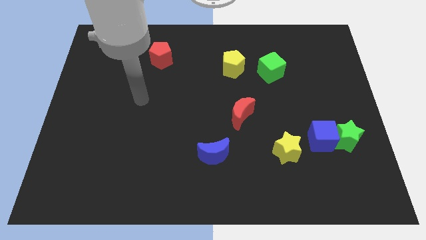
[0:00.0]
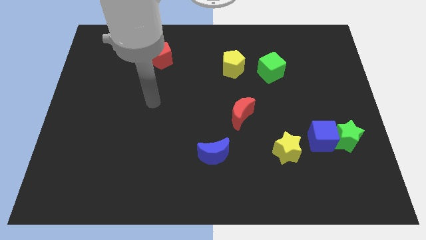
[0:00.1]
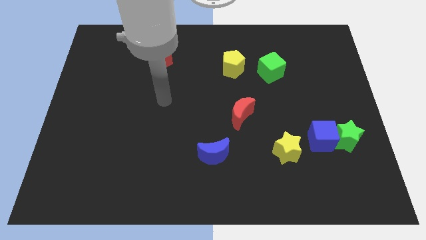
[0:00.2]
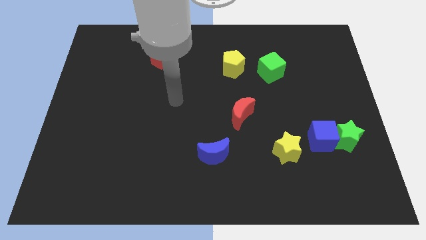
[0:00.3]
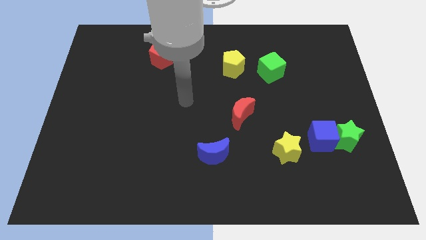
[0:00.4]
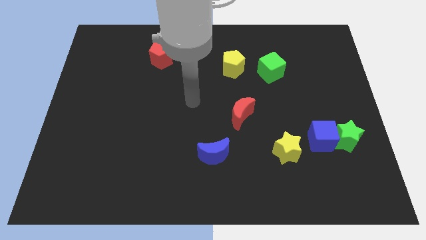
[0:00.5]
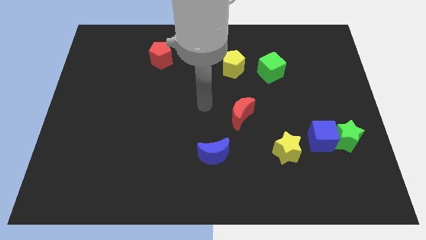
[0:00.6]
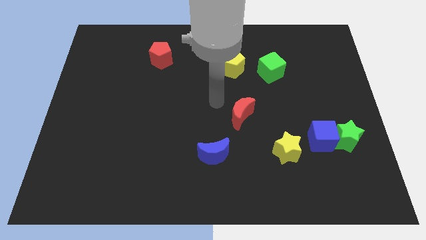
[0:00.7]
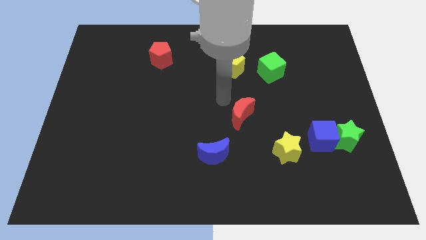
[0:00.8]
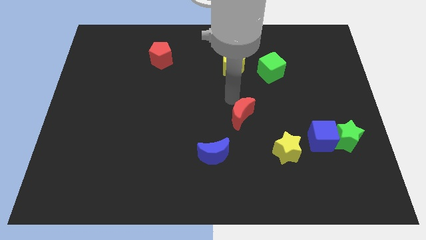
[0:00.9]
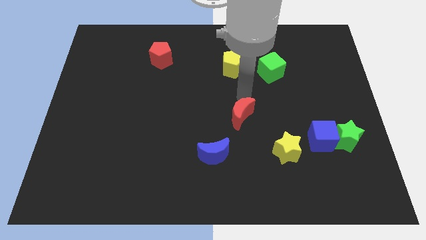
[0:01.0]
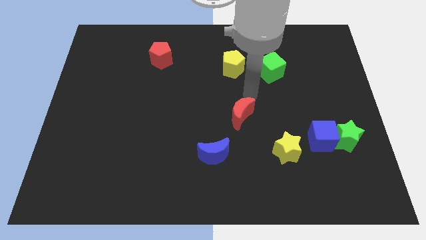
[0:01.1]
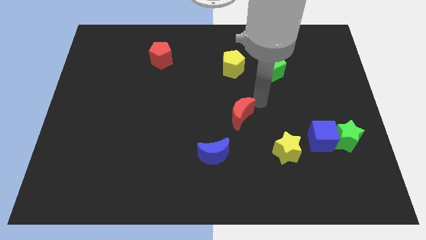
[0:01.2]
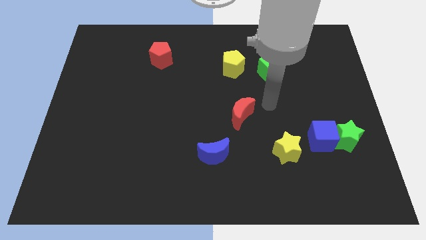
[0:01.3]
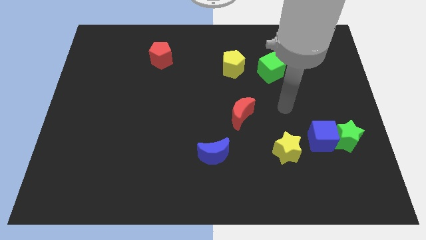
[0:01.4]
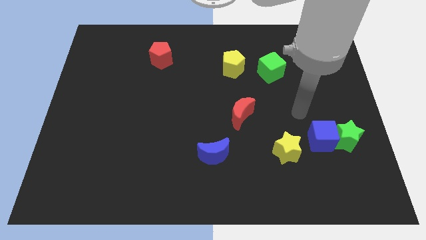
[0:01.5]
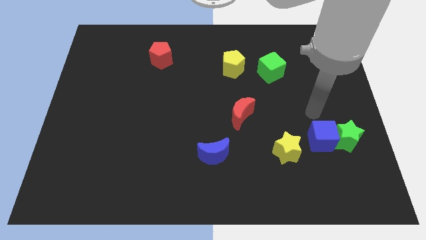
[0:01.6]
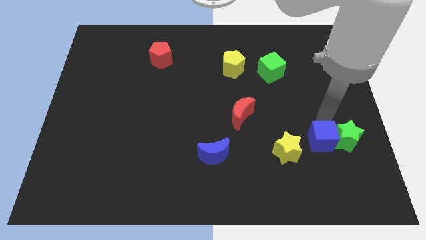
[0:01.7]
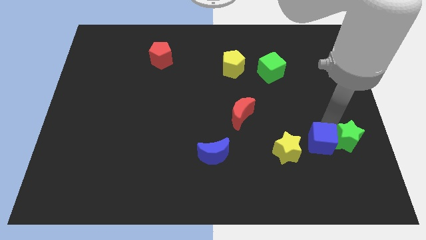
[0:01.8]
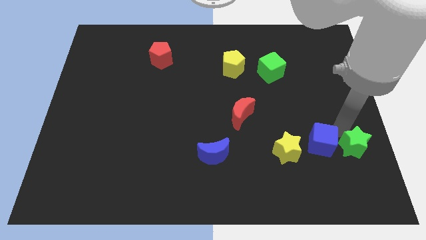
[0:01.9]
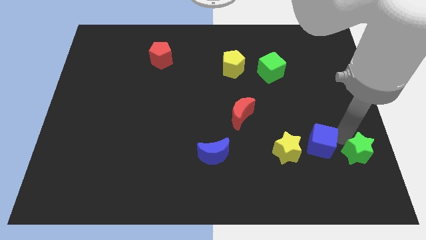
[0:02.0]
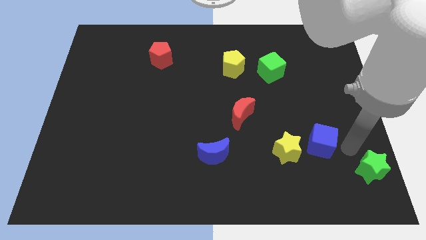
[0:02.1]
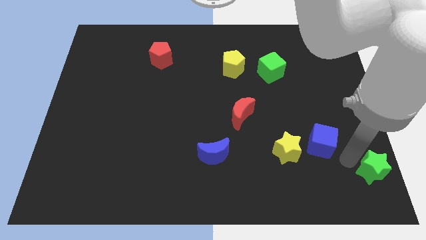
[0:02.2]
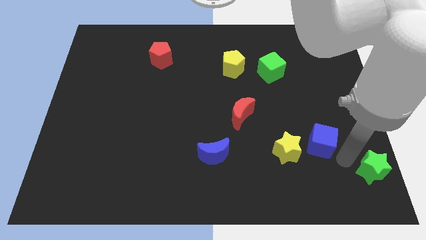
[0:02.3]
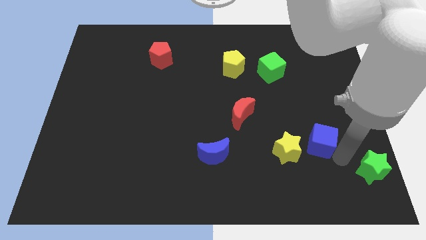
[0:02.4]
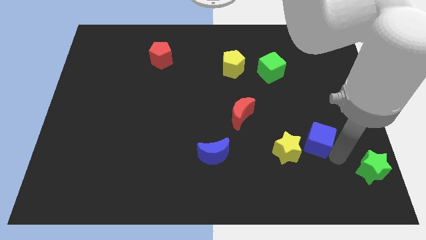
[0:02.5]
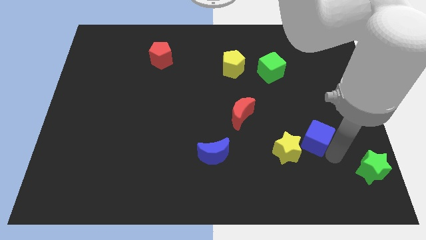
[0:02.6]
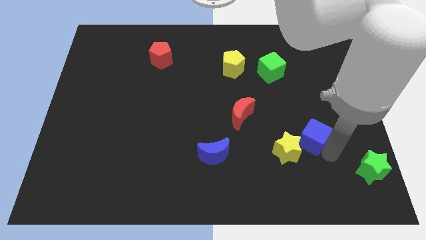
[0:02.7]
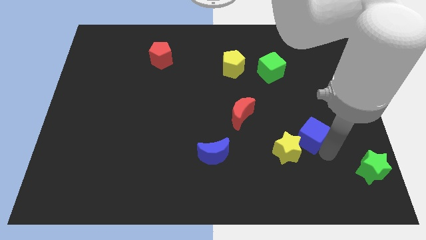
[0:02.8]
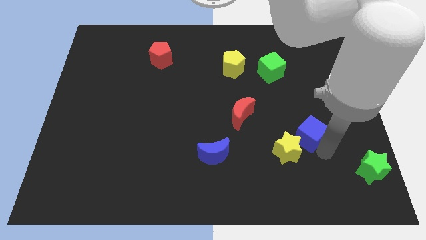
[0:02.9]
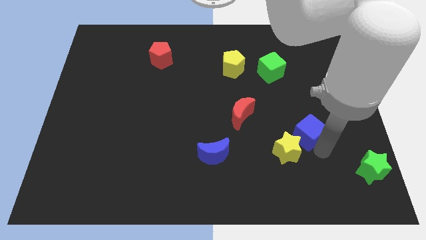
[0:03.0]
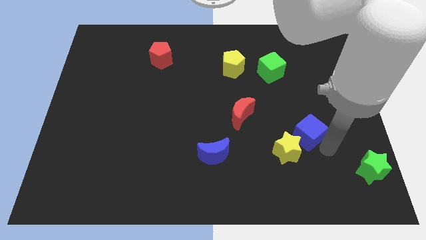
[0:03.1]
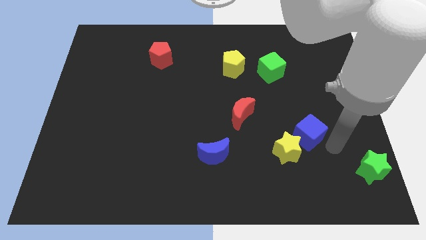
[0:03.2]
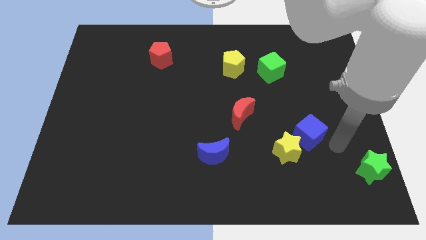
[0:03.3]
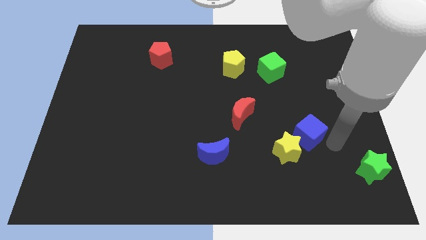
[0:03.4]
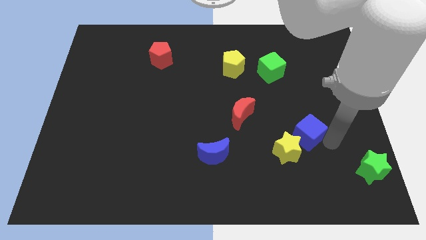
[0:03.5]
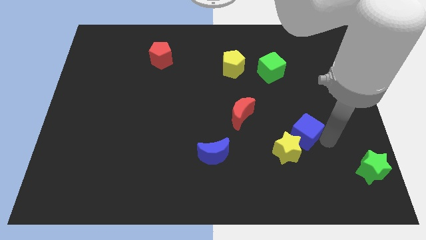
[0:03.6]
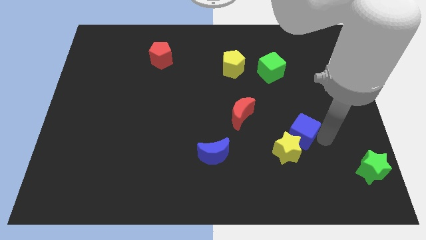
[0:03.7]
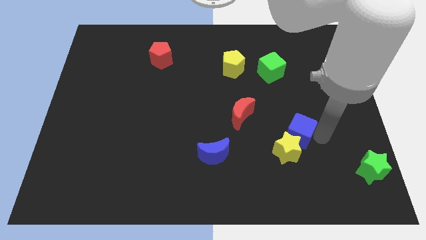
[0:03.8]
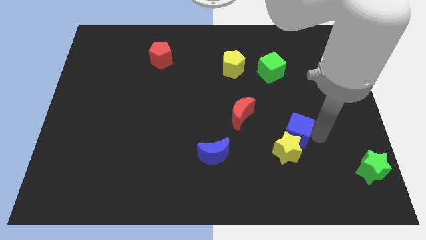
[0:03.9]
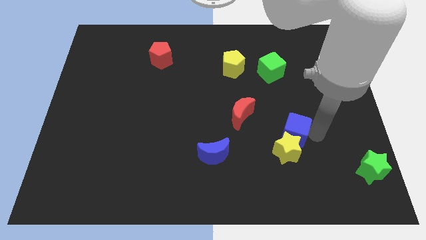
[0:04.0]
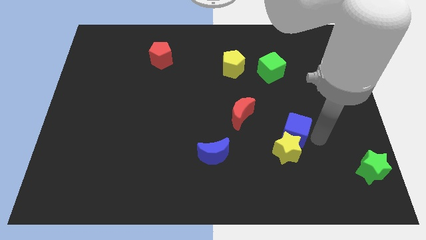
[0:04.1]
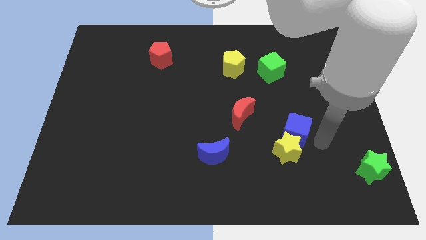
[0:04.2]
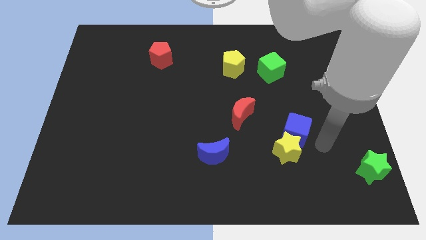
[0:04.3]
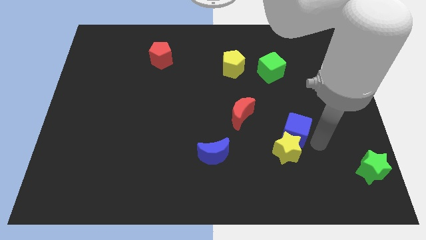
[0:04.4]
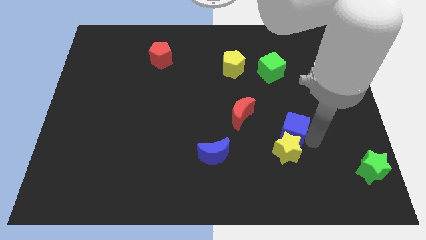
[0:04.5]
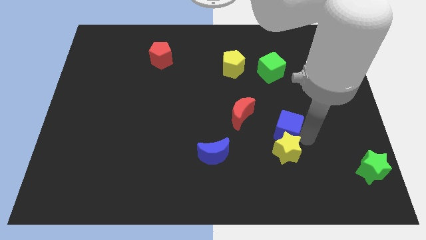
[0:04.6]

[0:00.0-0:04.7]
move the blue cube to the left a bit

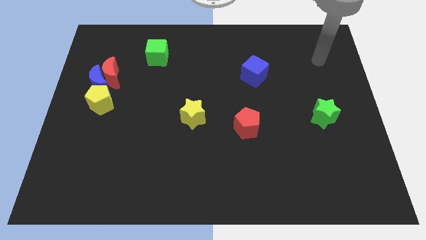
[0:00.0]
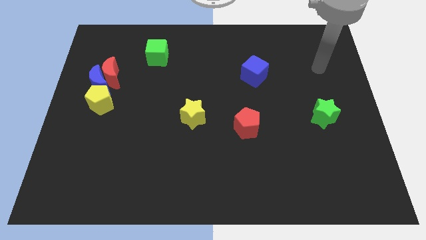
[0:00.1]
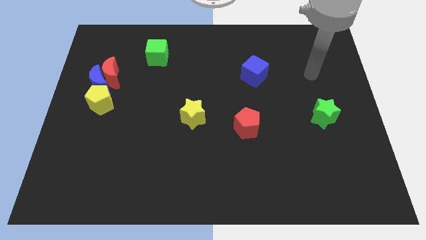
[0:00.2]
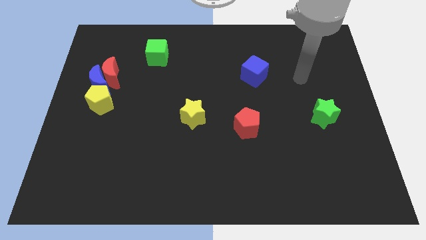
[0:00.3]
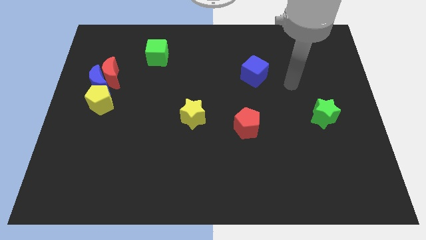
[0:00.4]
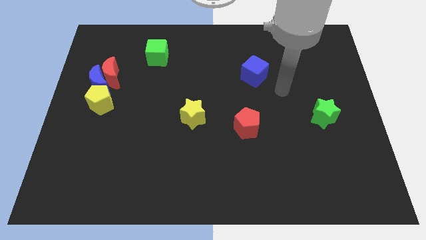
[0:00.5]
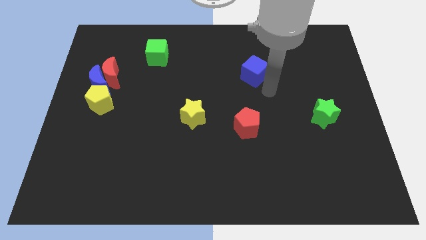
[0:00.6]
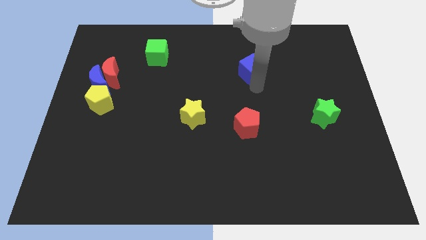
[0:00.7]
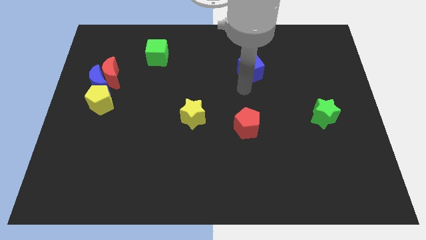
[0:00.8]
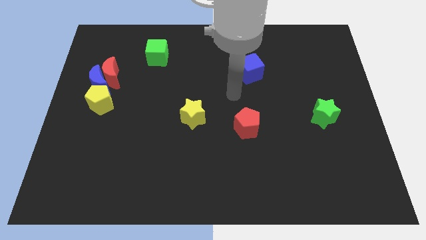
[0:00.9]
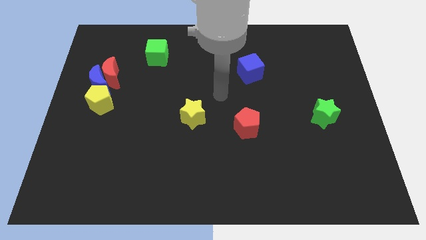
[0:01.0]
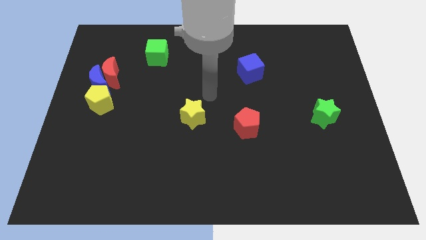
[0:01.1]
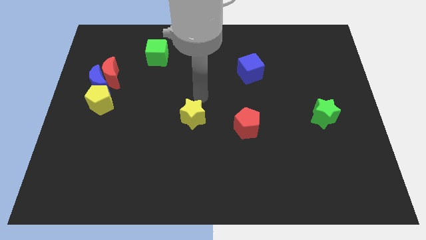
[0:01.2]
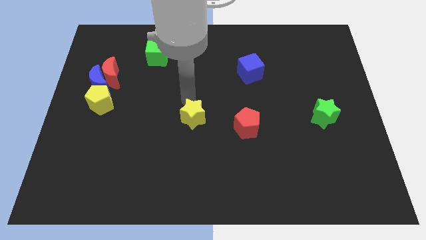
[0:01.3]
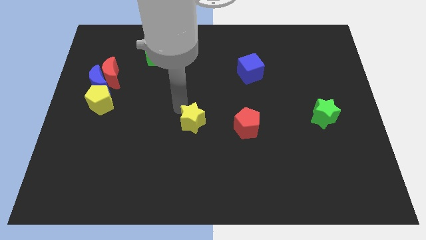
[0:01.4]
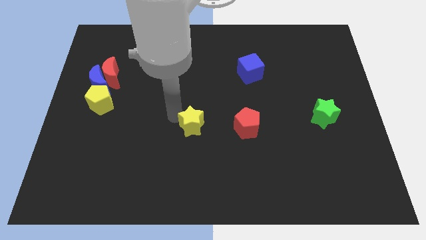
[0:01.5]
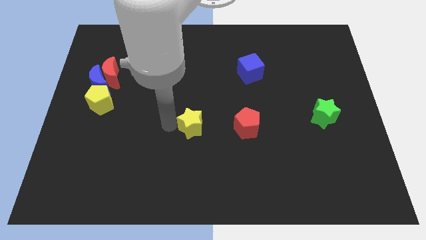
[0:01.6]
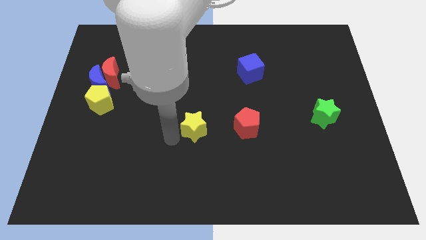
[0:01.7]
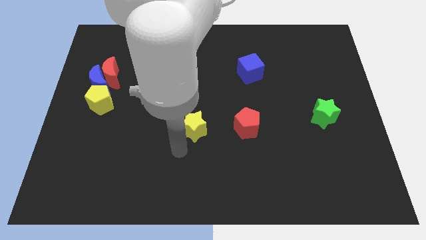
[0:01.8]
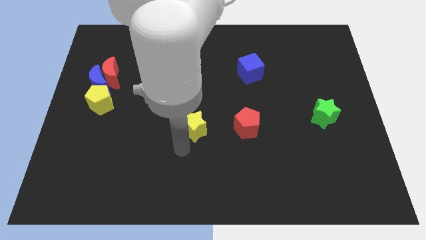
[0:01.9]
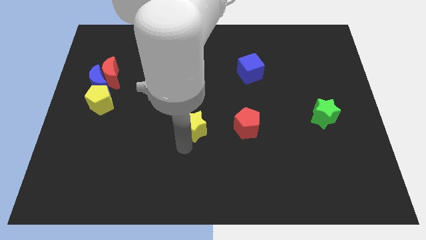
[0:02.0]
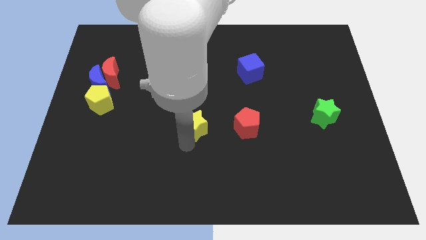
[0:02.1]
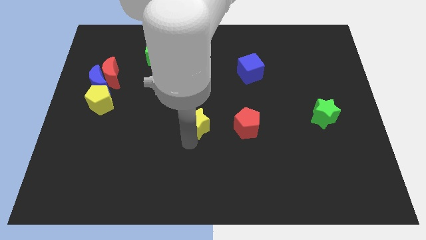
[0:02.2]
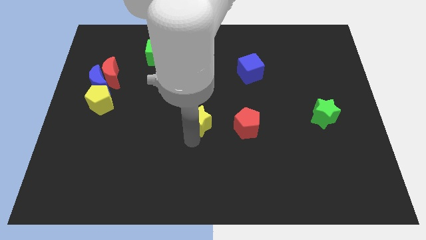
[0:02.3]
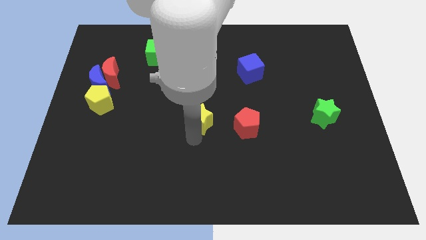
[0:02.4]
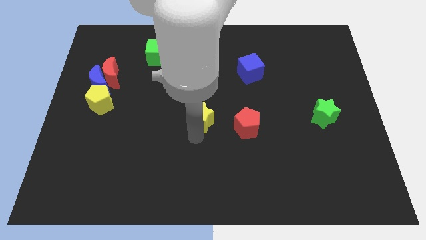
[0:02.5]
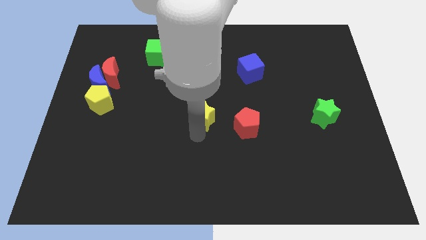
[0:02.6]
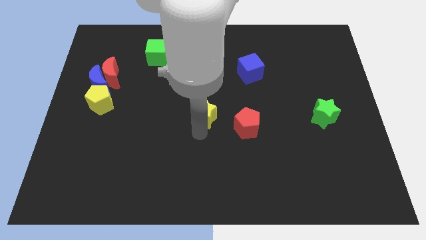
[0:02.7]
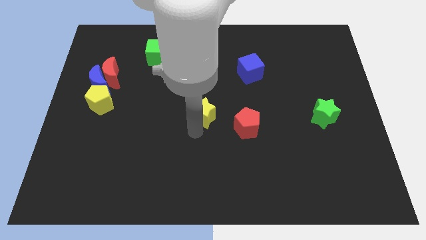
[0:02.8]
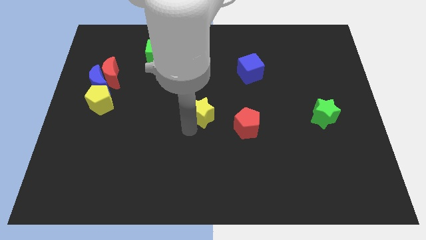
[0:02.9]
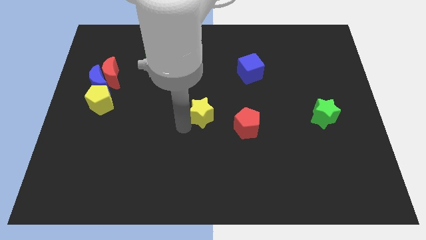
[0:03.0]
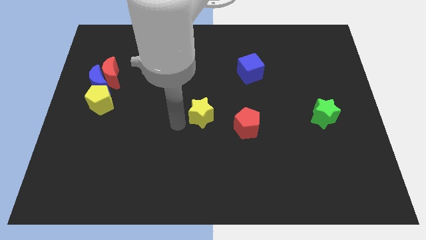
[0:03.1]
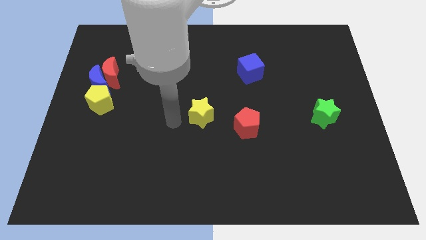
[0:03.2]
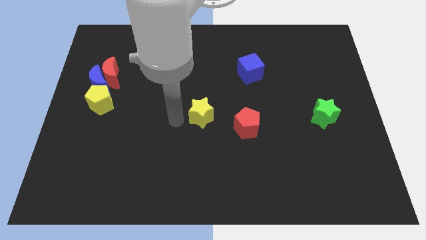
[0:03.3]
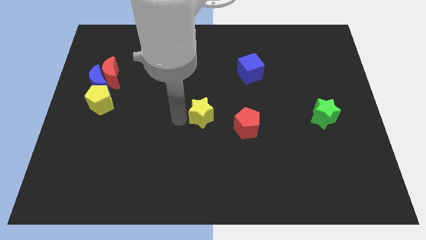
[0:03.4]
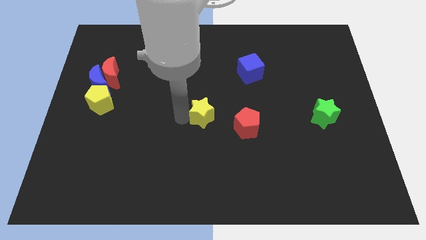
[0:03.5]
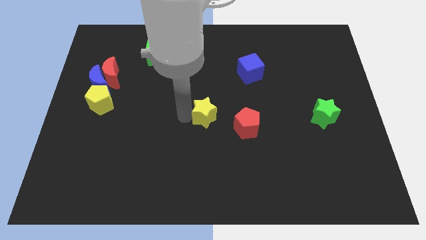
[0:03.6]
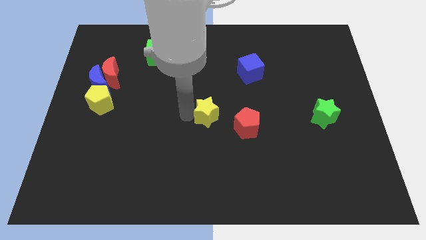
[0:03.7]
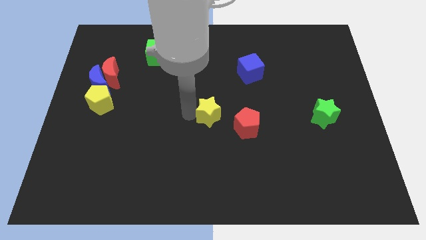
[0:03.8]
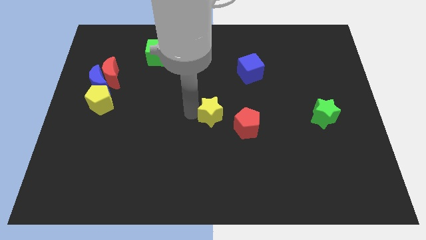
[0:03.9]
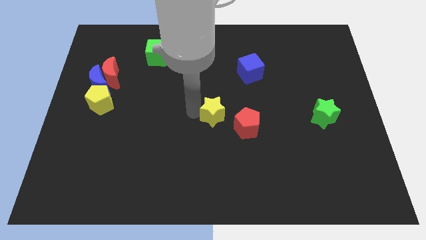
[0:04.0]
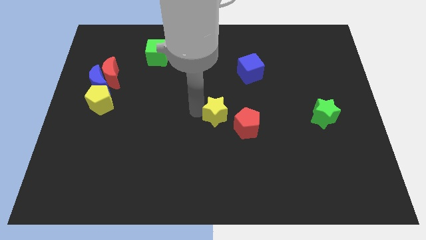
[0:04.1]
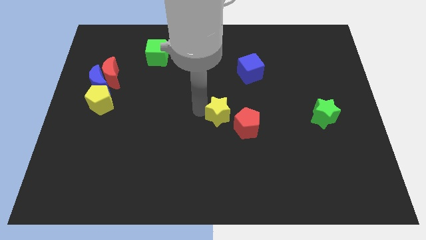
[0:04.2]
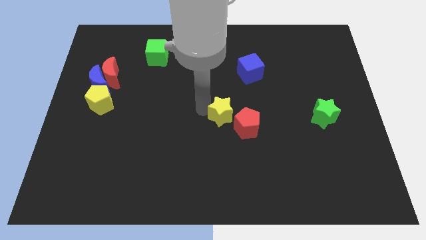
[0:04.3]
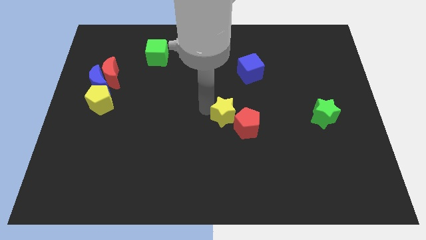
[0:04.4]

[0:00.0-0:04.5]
move the yellow star a little to the right
